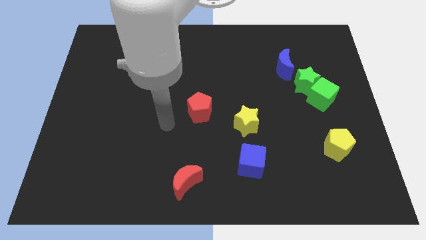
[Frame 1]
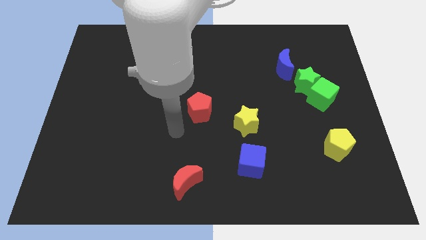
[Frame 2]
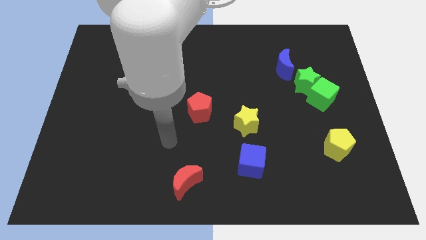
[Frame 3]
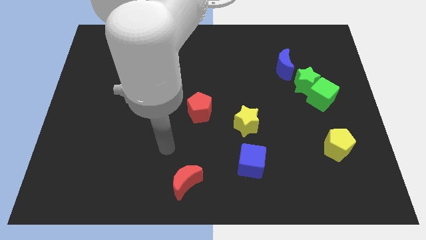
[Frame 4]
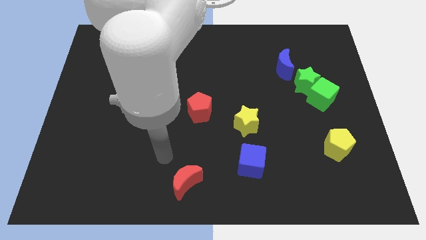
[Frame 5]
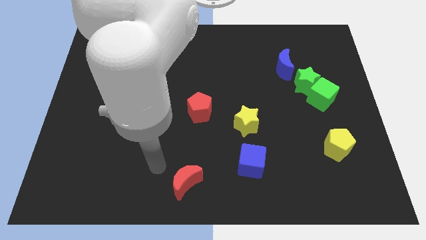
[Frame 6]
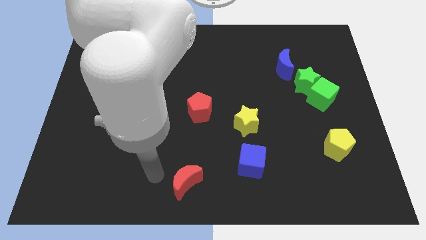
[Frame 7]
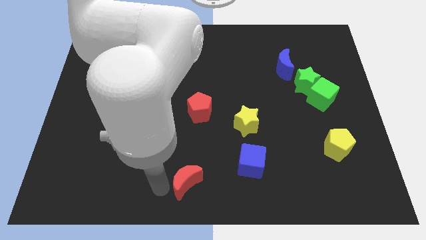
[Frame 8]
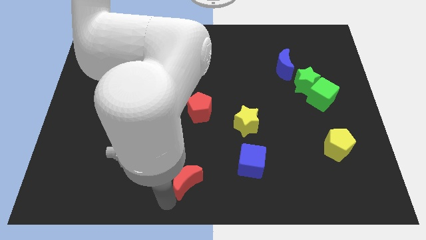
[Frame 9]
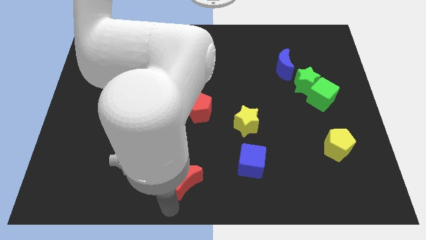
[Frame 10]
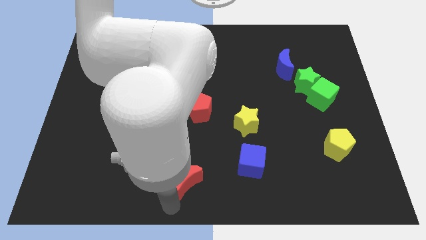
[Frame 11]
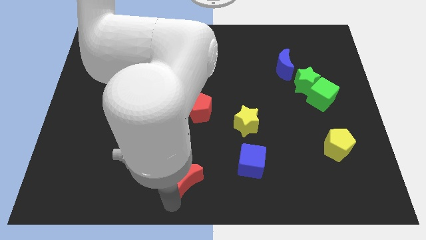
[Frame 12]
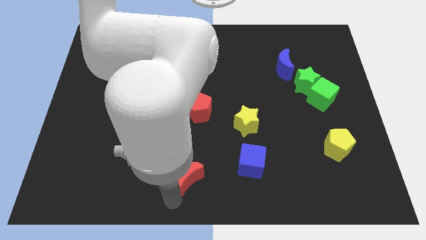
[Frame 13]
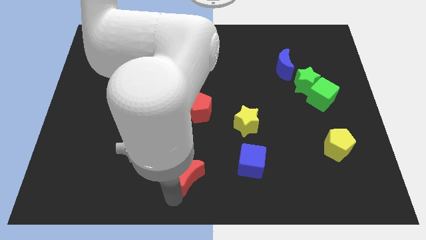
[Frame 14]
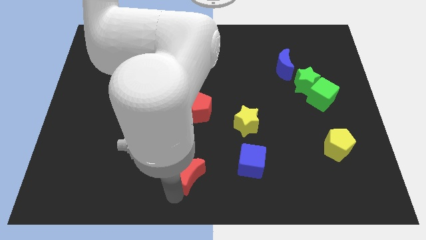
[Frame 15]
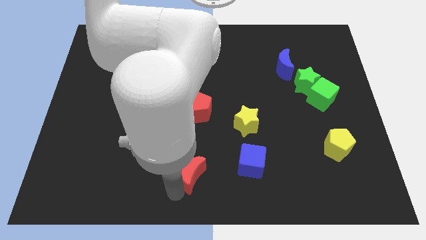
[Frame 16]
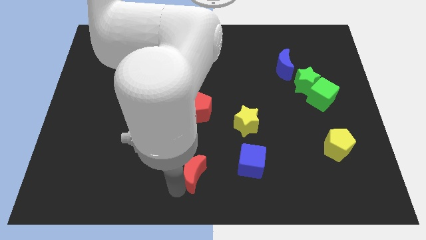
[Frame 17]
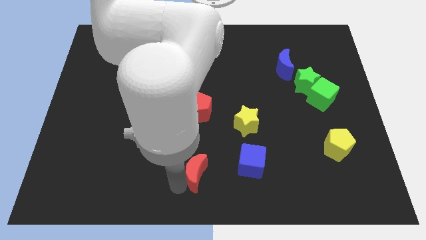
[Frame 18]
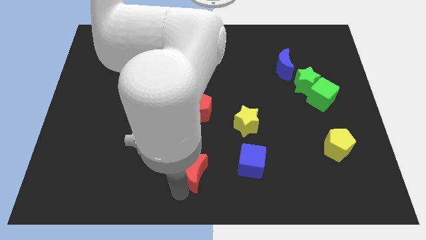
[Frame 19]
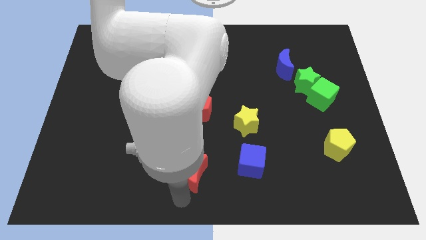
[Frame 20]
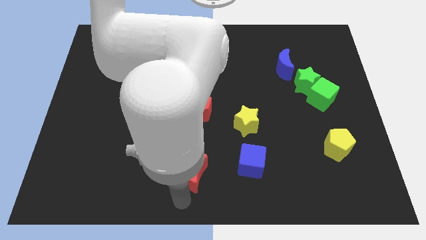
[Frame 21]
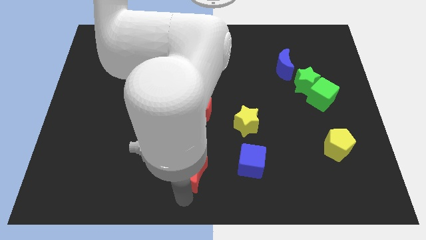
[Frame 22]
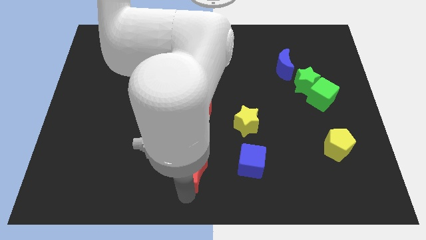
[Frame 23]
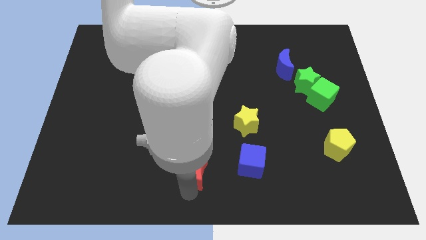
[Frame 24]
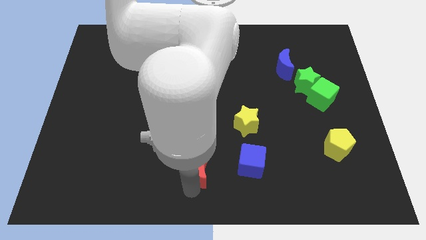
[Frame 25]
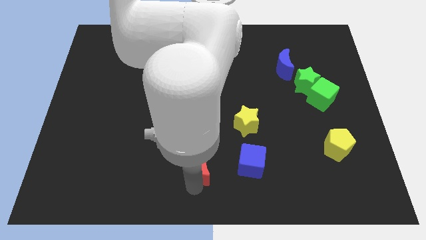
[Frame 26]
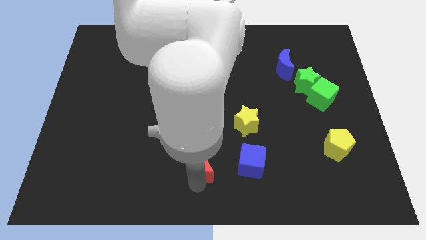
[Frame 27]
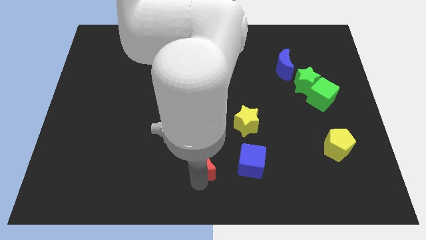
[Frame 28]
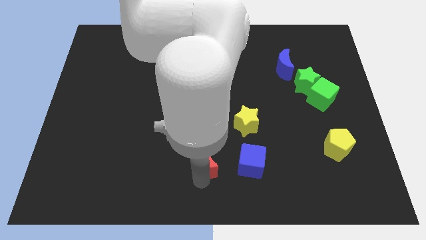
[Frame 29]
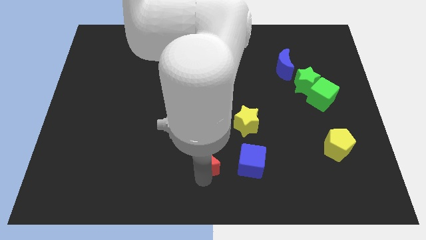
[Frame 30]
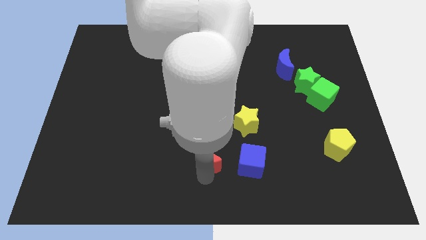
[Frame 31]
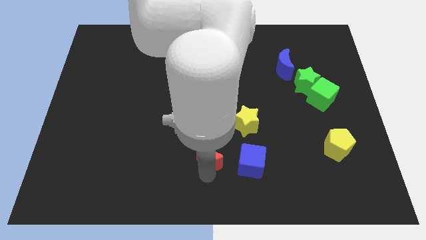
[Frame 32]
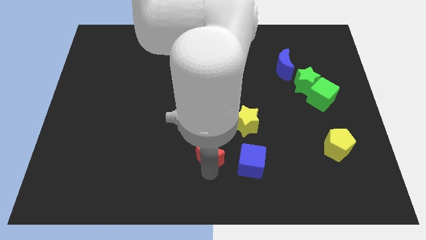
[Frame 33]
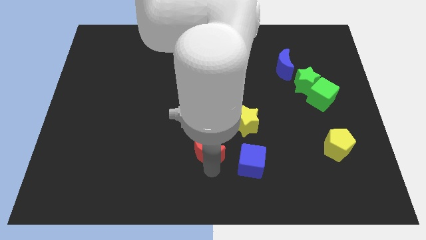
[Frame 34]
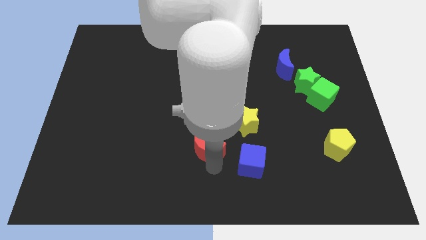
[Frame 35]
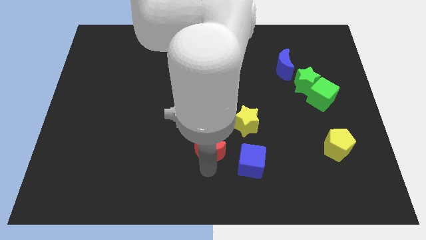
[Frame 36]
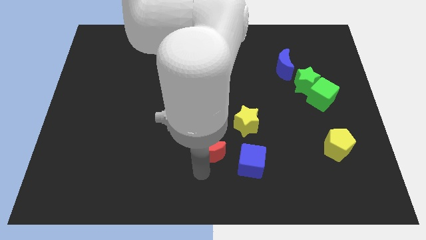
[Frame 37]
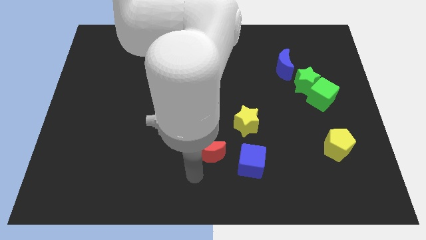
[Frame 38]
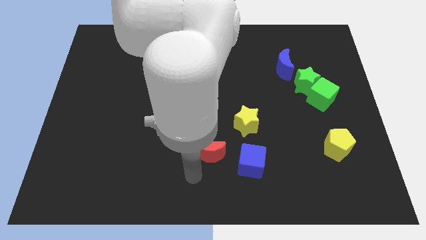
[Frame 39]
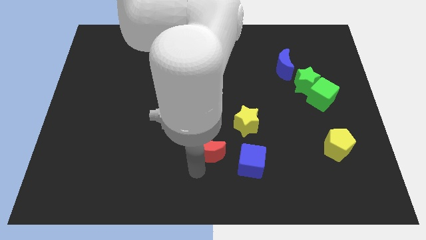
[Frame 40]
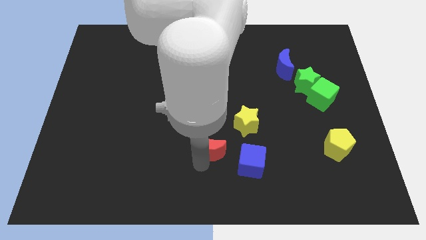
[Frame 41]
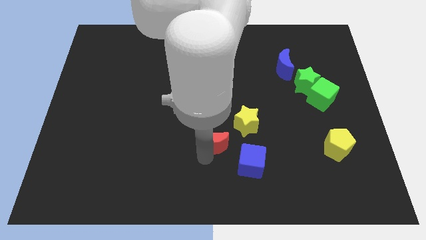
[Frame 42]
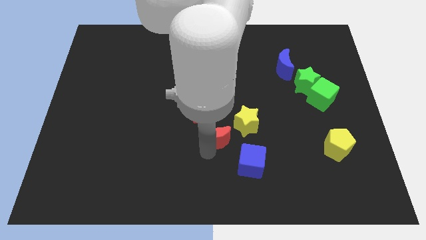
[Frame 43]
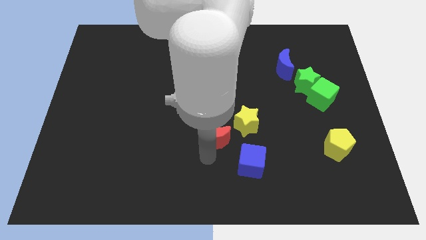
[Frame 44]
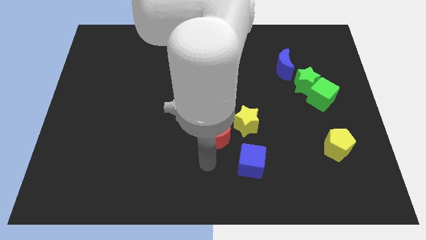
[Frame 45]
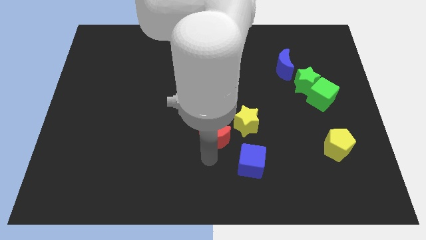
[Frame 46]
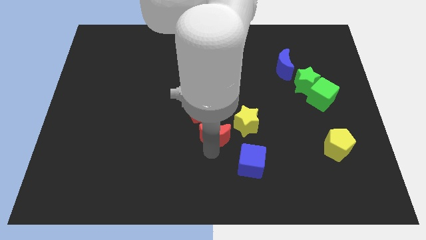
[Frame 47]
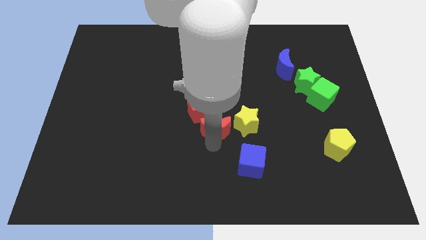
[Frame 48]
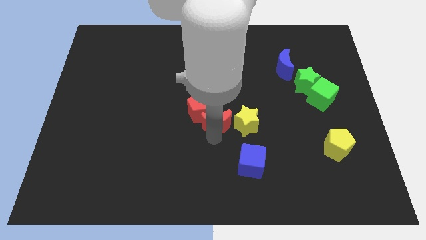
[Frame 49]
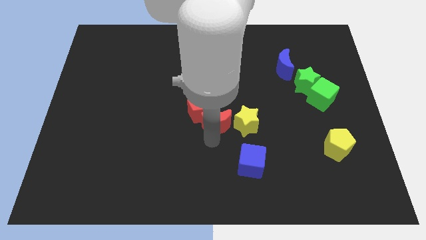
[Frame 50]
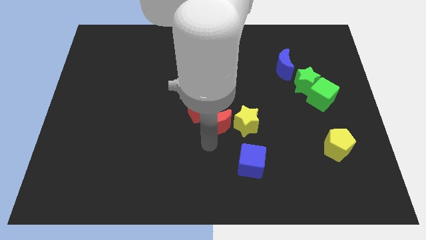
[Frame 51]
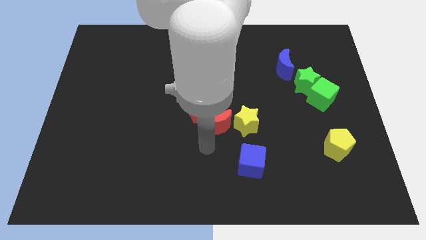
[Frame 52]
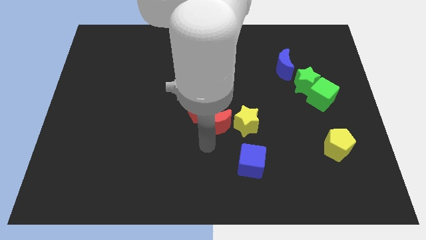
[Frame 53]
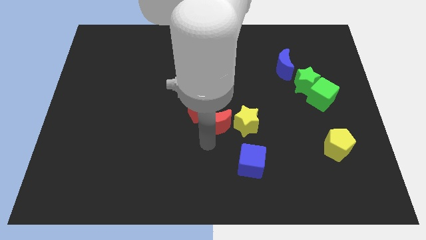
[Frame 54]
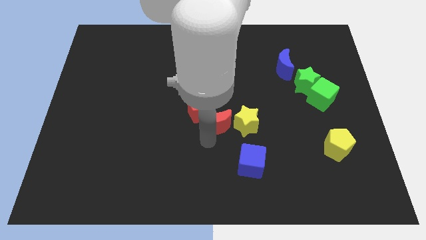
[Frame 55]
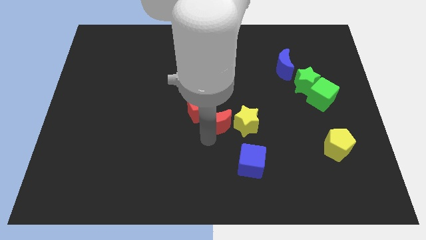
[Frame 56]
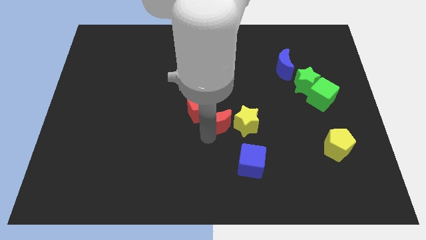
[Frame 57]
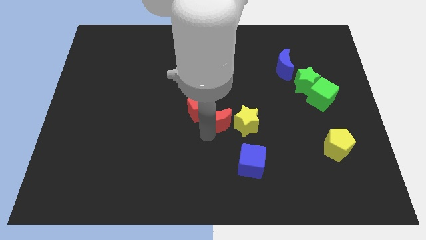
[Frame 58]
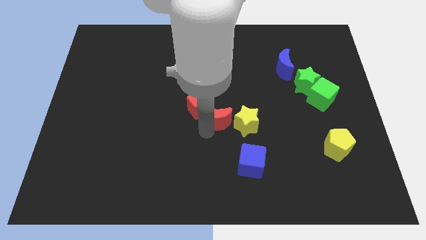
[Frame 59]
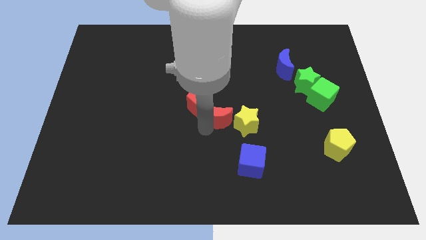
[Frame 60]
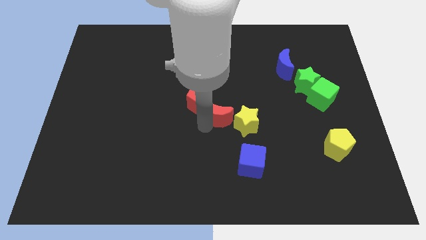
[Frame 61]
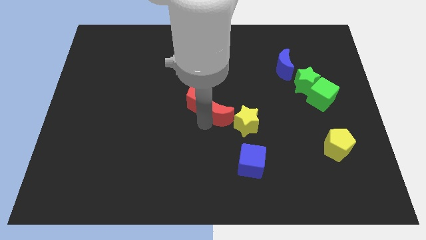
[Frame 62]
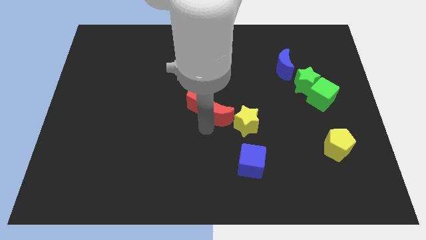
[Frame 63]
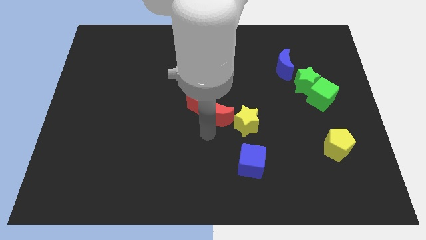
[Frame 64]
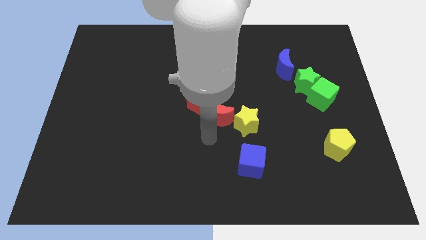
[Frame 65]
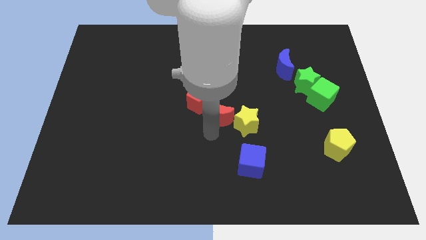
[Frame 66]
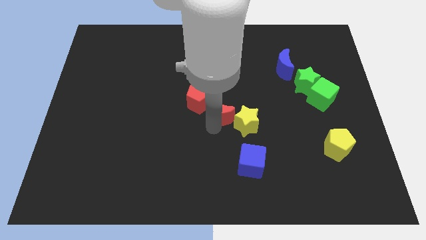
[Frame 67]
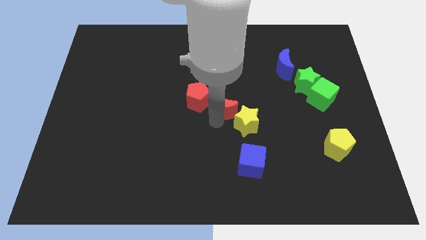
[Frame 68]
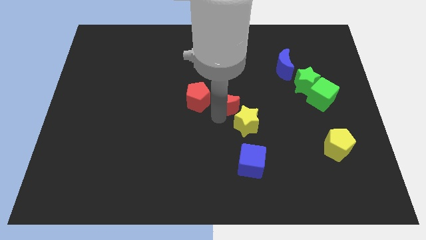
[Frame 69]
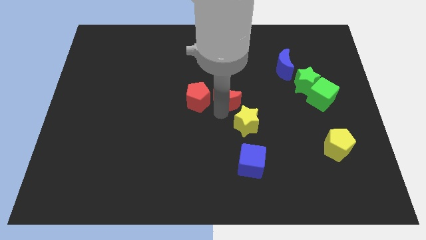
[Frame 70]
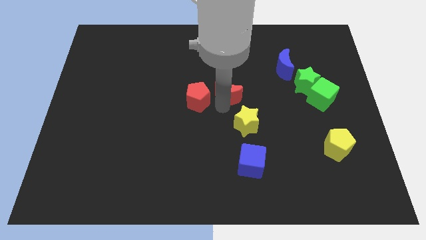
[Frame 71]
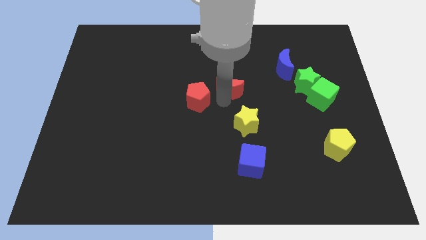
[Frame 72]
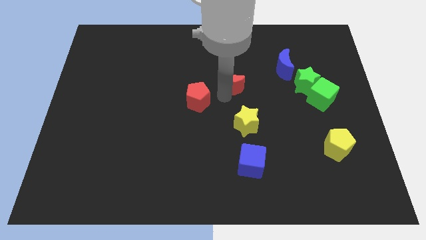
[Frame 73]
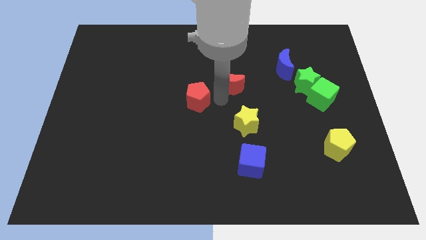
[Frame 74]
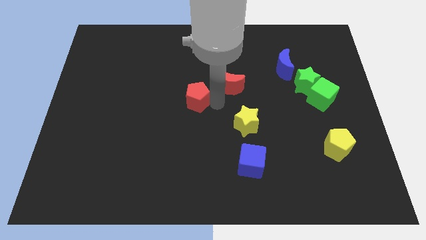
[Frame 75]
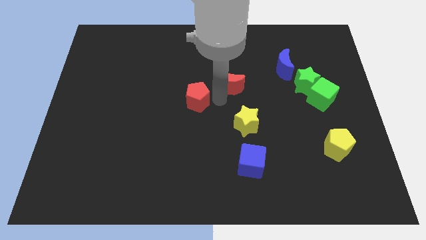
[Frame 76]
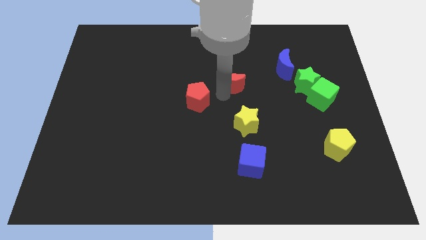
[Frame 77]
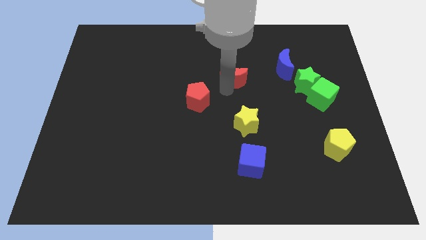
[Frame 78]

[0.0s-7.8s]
push the red moon left of the blue moon
